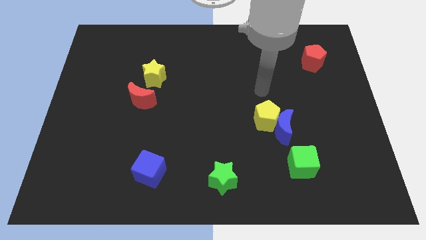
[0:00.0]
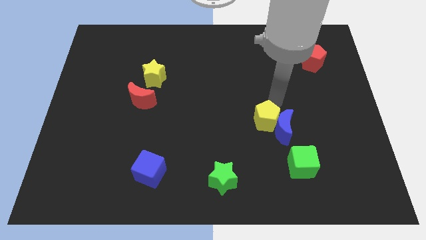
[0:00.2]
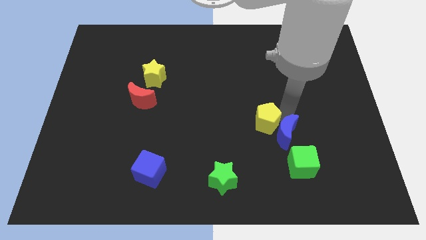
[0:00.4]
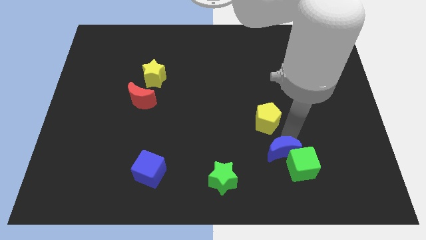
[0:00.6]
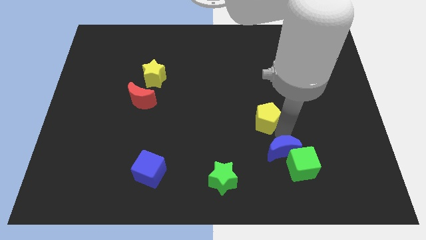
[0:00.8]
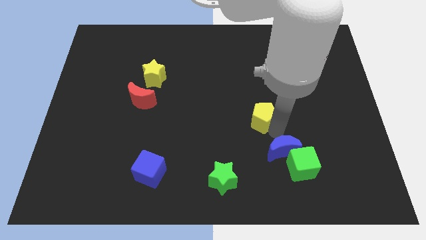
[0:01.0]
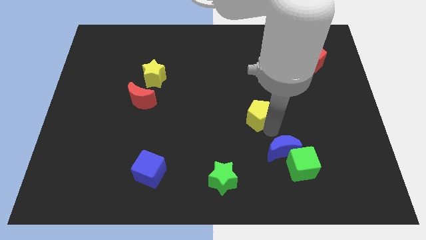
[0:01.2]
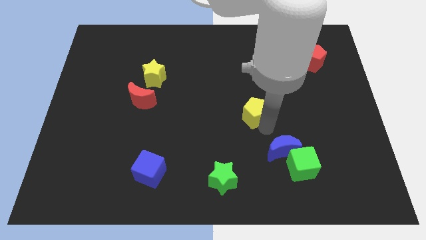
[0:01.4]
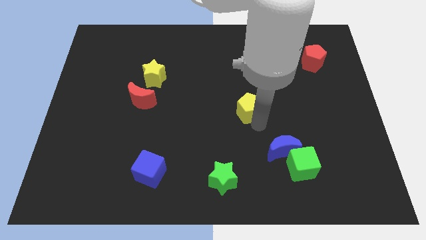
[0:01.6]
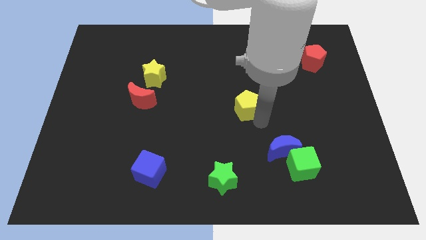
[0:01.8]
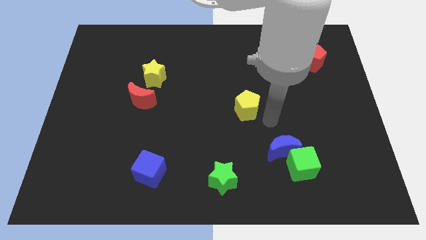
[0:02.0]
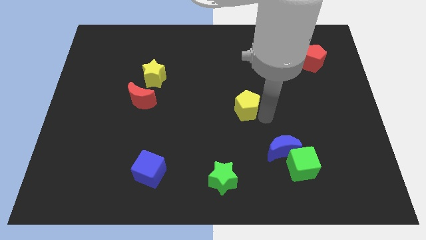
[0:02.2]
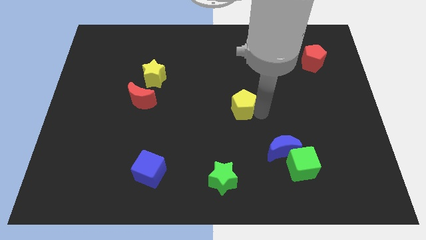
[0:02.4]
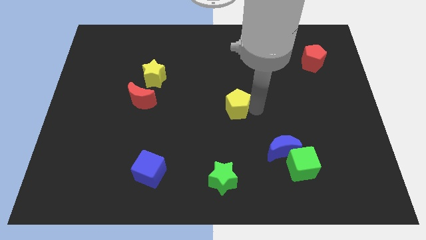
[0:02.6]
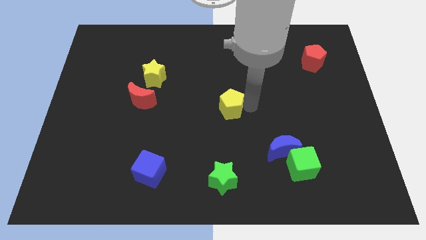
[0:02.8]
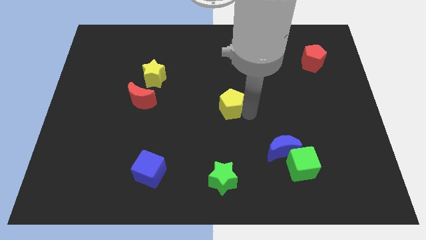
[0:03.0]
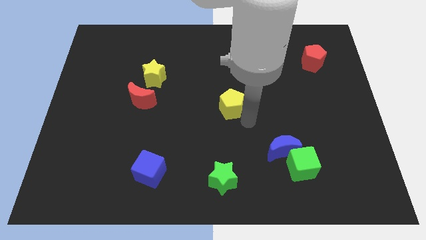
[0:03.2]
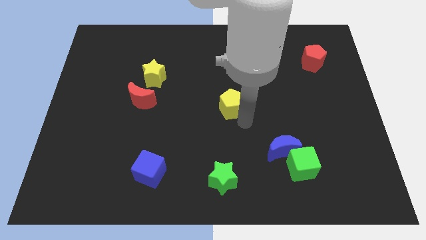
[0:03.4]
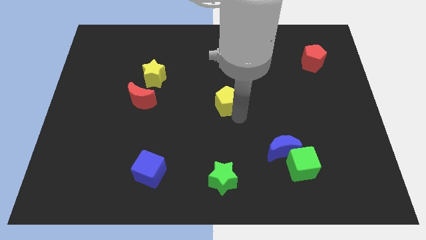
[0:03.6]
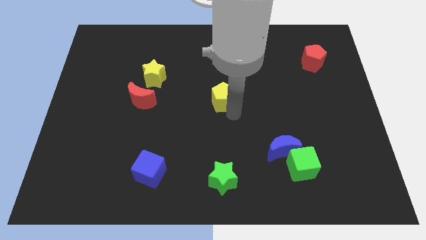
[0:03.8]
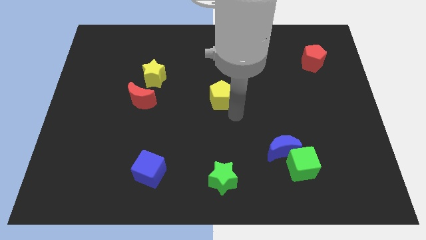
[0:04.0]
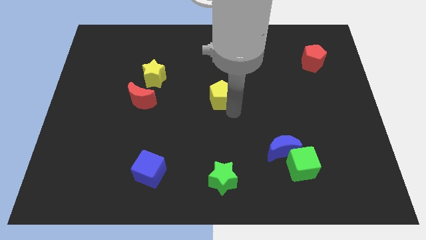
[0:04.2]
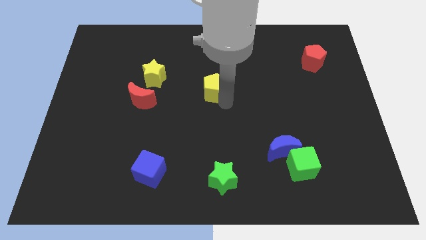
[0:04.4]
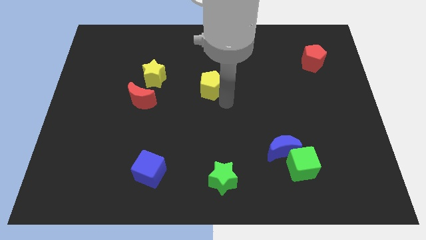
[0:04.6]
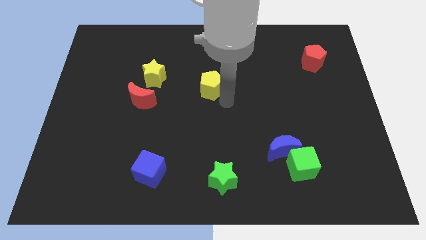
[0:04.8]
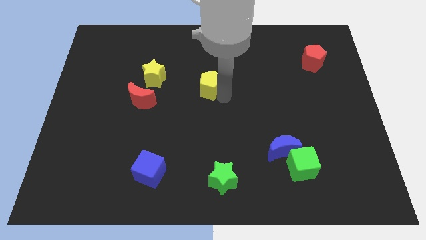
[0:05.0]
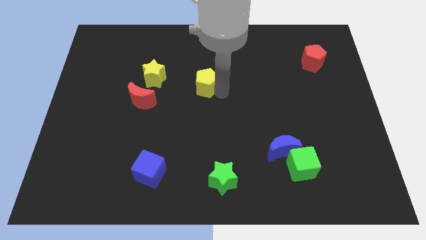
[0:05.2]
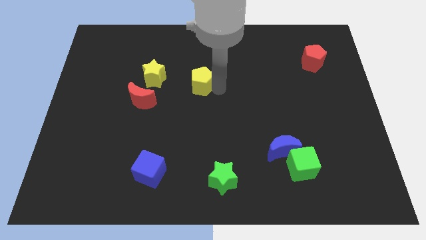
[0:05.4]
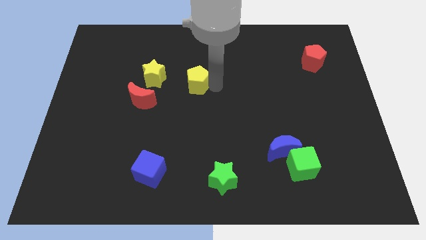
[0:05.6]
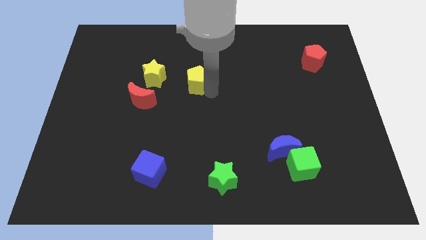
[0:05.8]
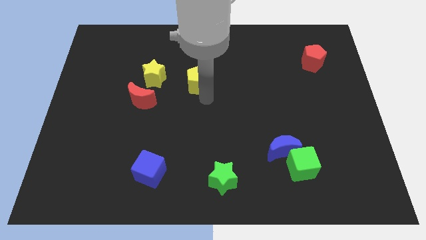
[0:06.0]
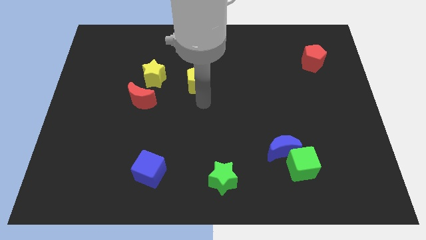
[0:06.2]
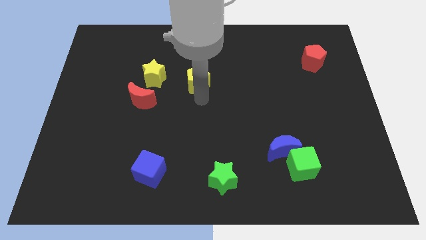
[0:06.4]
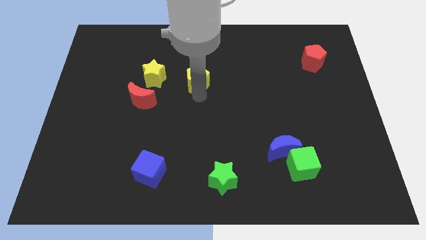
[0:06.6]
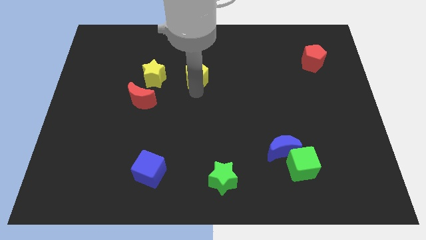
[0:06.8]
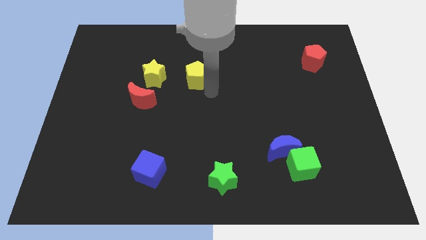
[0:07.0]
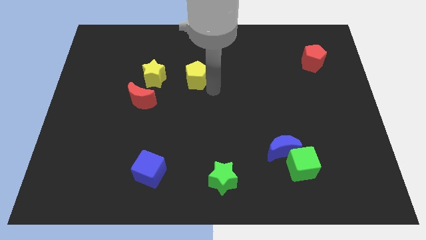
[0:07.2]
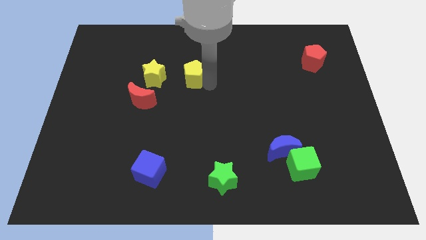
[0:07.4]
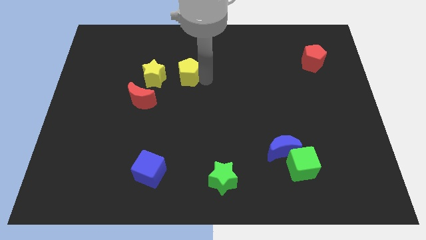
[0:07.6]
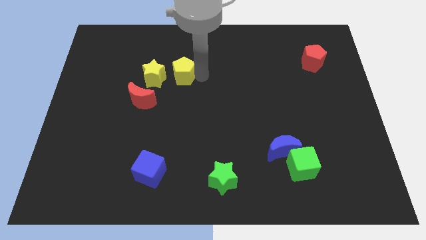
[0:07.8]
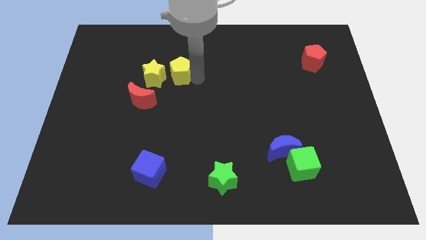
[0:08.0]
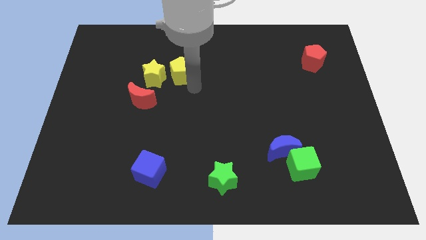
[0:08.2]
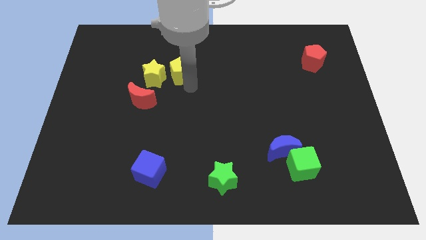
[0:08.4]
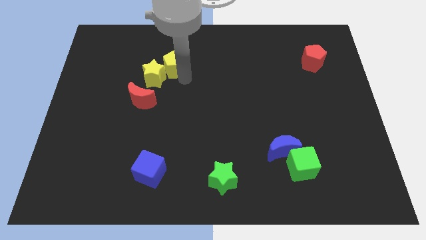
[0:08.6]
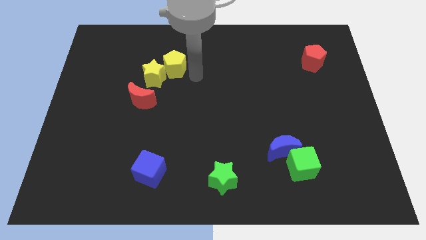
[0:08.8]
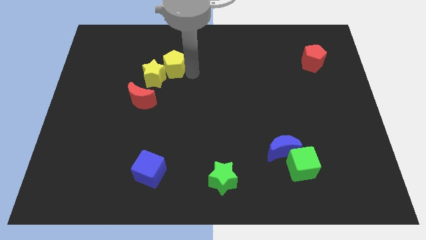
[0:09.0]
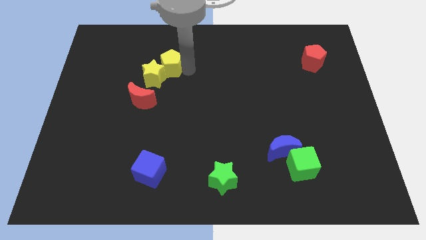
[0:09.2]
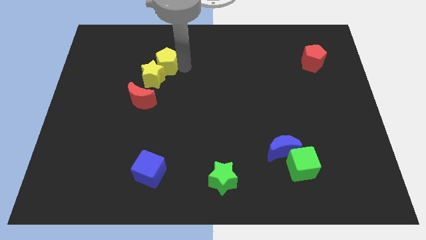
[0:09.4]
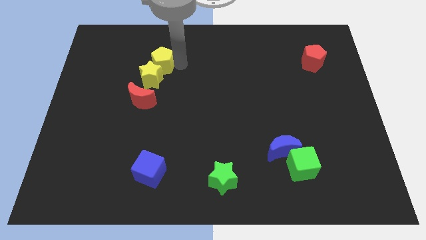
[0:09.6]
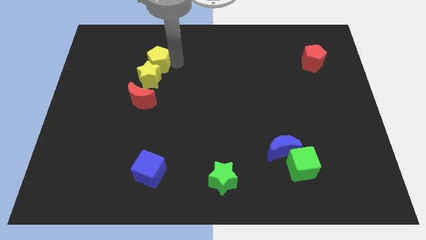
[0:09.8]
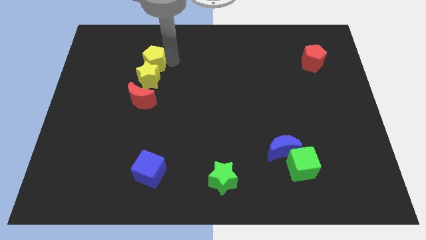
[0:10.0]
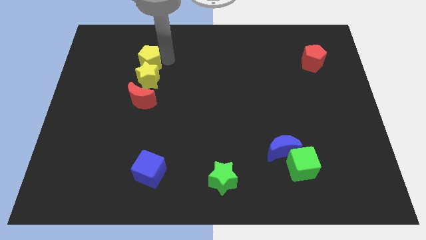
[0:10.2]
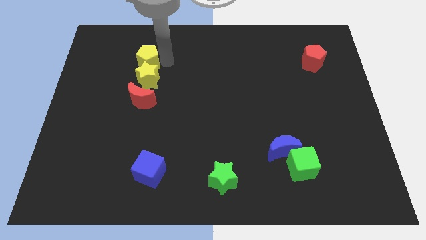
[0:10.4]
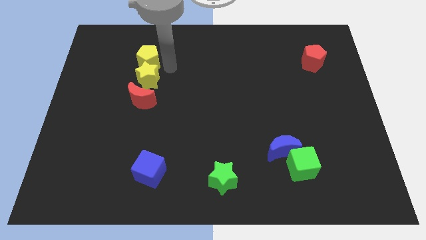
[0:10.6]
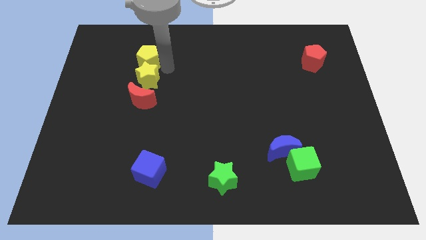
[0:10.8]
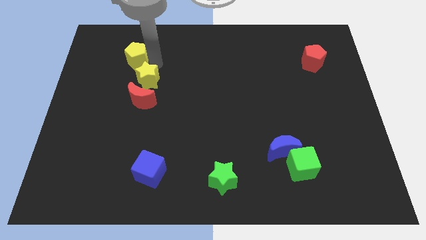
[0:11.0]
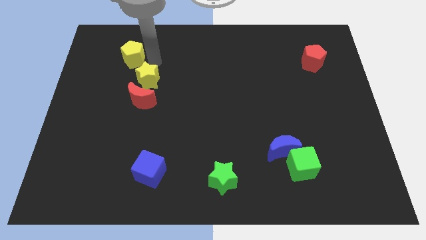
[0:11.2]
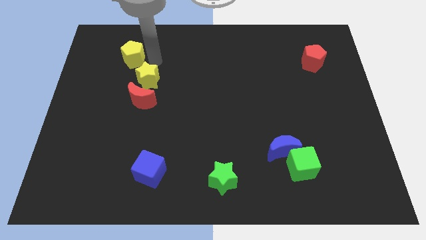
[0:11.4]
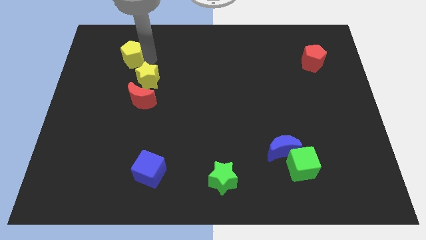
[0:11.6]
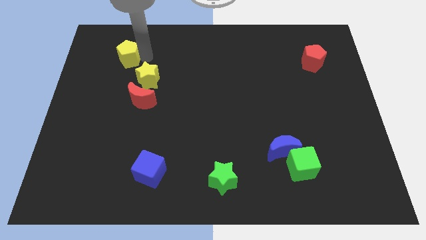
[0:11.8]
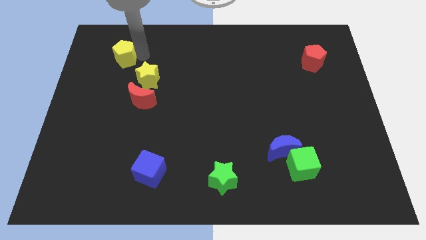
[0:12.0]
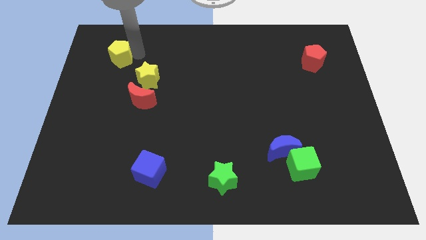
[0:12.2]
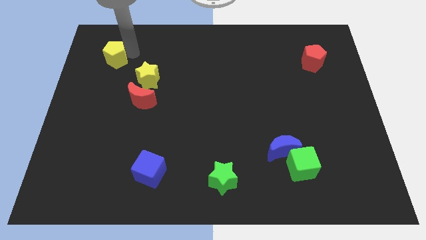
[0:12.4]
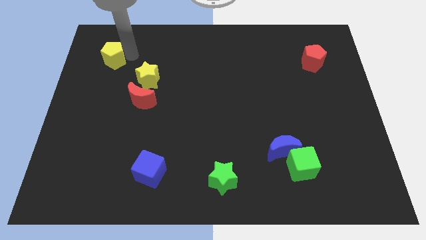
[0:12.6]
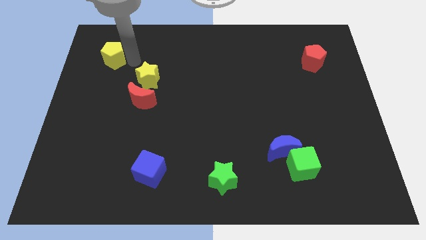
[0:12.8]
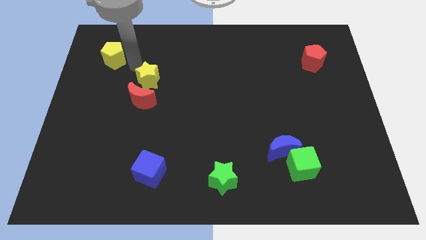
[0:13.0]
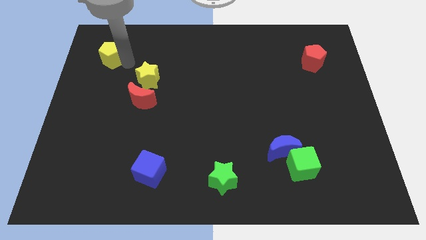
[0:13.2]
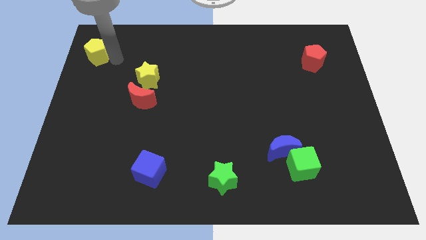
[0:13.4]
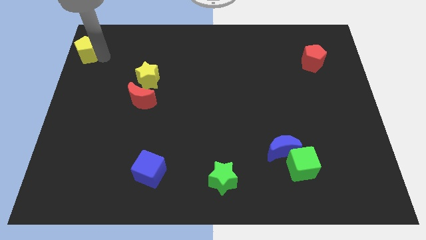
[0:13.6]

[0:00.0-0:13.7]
put the yellow pentagon to the upper left corner
